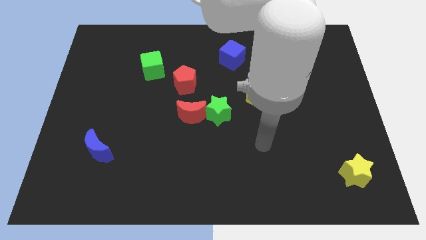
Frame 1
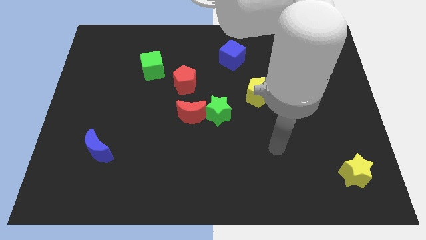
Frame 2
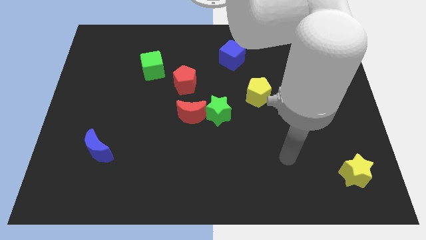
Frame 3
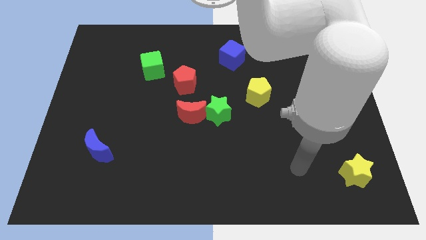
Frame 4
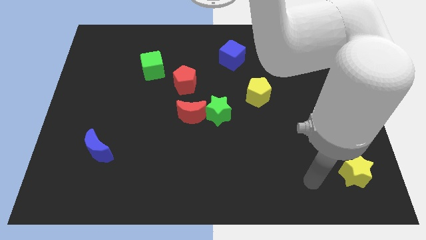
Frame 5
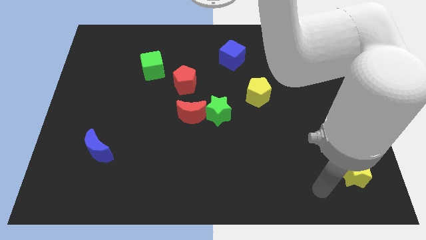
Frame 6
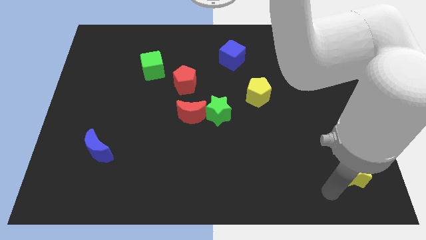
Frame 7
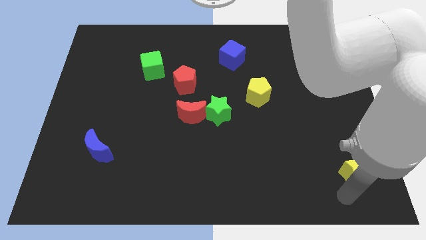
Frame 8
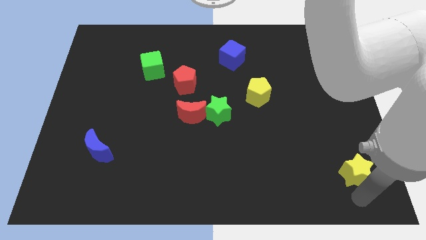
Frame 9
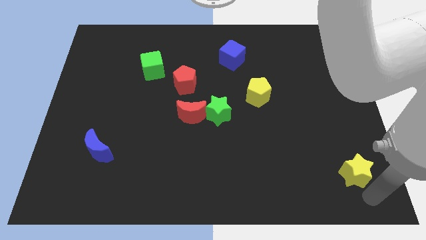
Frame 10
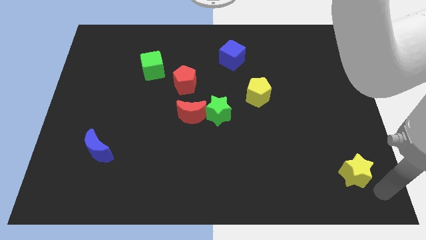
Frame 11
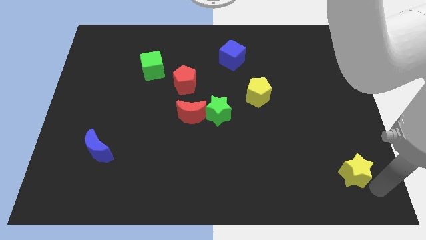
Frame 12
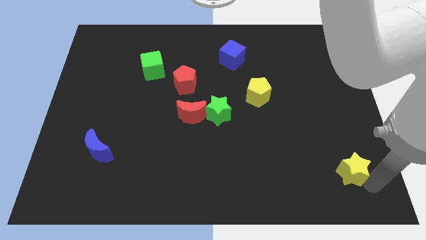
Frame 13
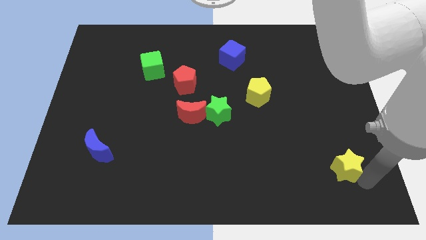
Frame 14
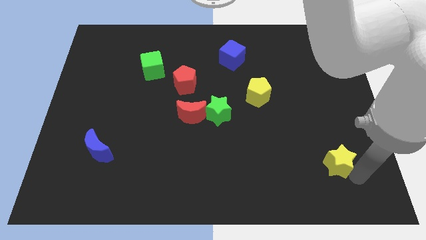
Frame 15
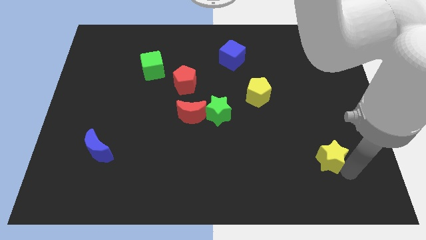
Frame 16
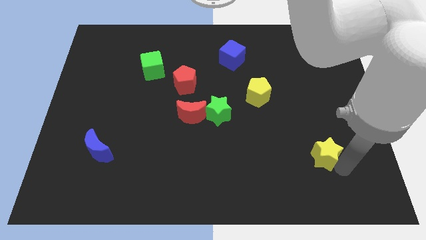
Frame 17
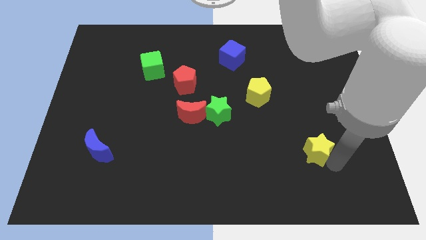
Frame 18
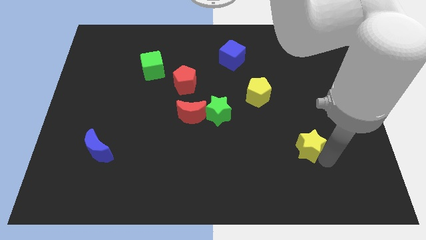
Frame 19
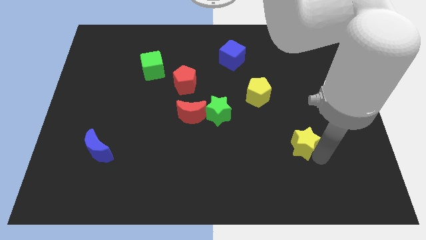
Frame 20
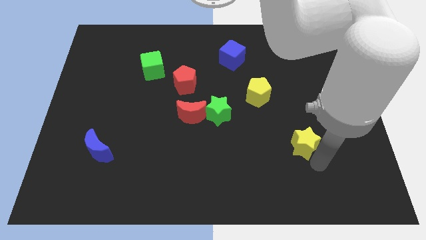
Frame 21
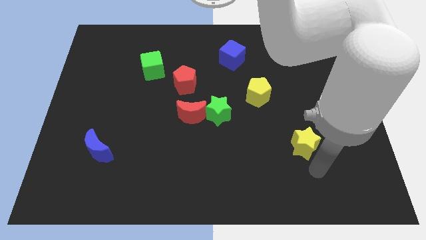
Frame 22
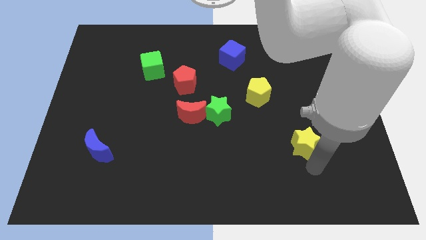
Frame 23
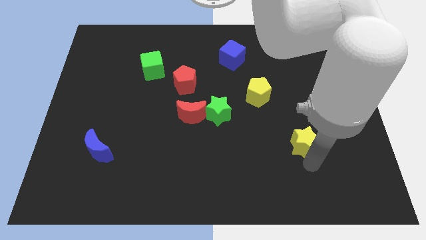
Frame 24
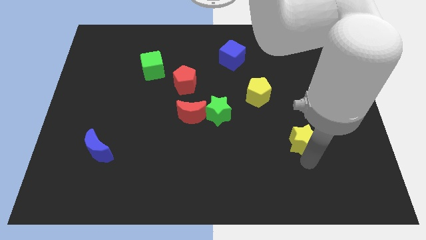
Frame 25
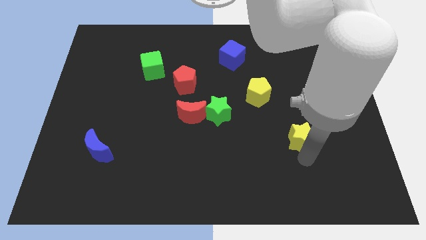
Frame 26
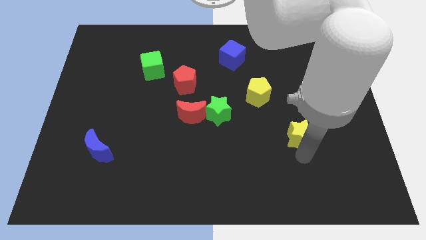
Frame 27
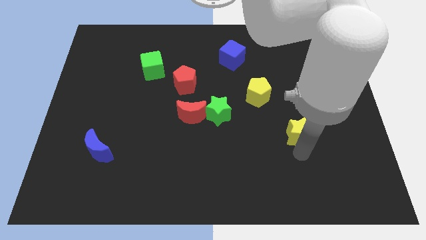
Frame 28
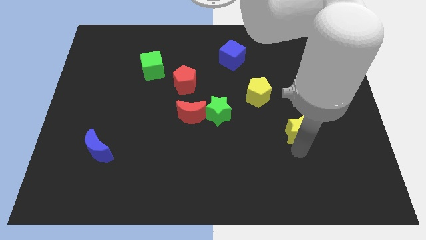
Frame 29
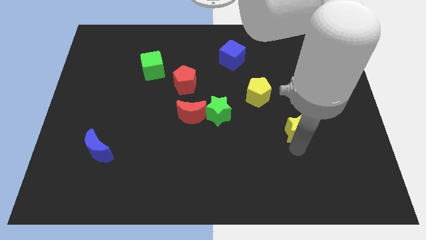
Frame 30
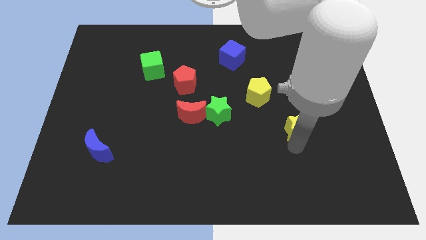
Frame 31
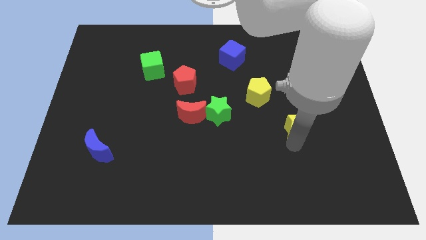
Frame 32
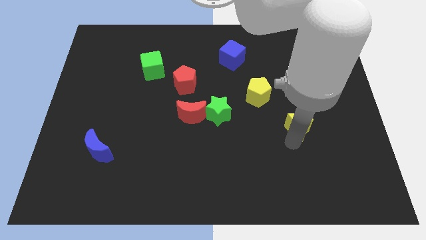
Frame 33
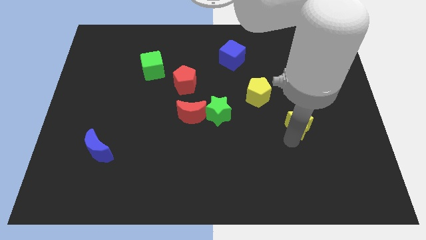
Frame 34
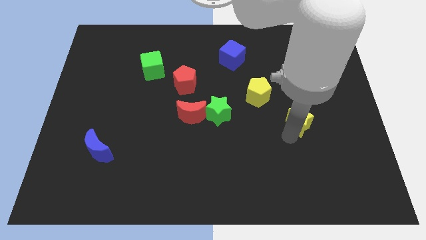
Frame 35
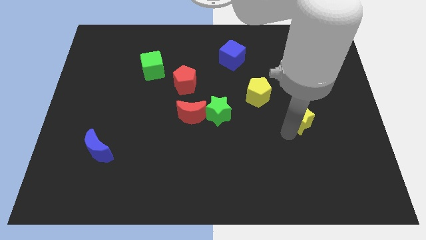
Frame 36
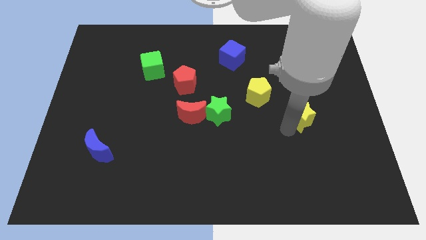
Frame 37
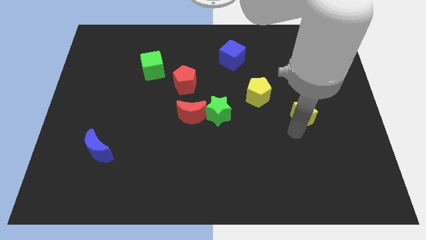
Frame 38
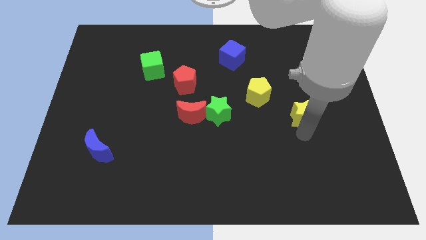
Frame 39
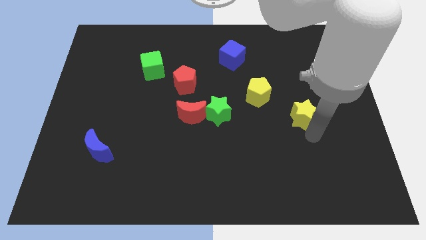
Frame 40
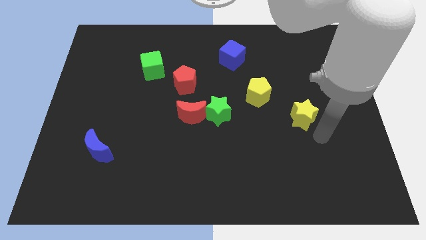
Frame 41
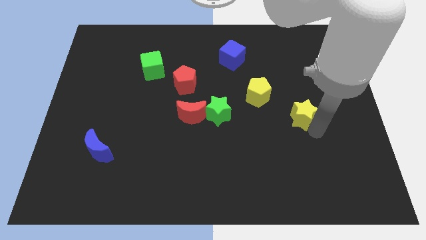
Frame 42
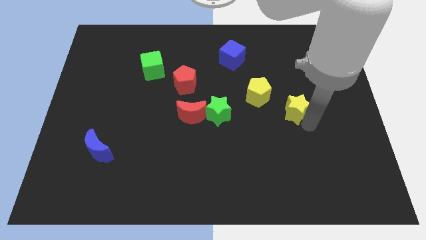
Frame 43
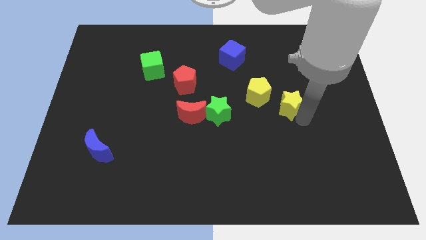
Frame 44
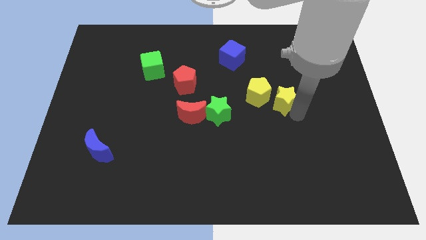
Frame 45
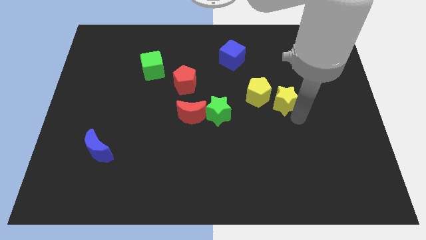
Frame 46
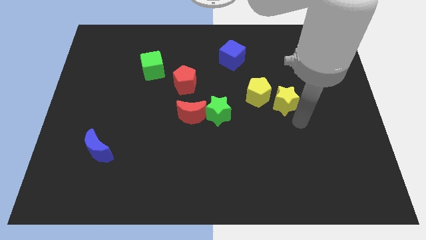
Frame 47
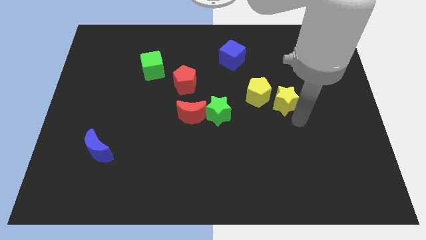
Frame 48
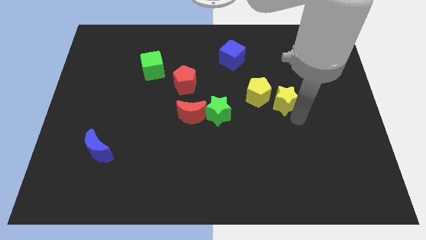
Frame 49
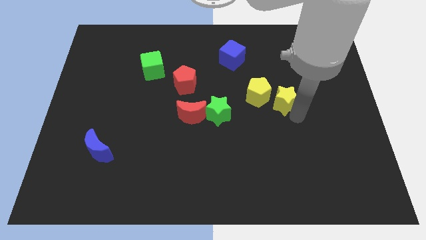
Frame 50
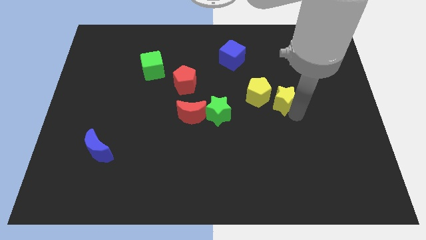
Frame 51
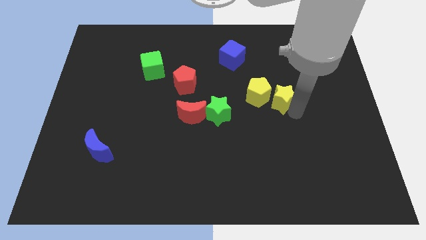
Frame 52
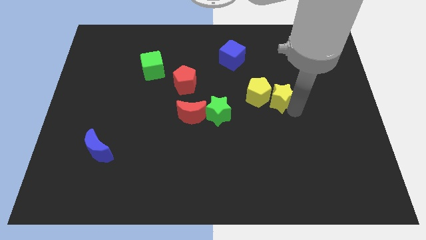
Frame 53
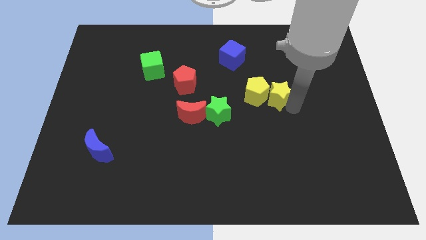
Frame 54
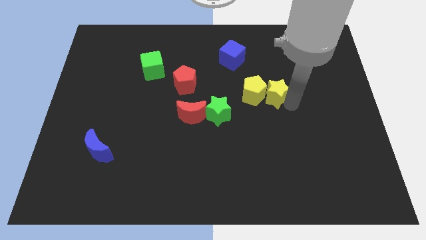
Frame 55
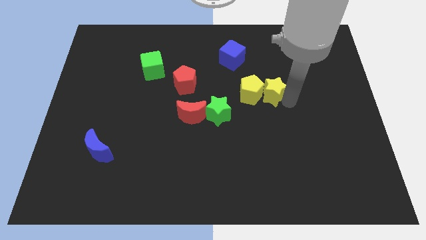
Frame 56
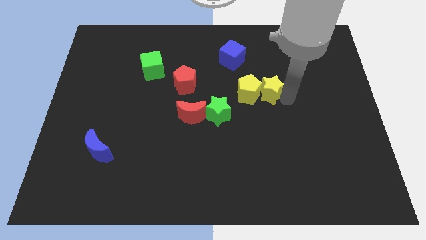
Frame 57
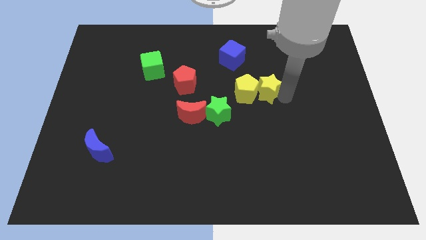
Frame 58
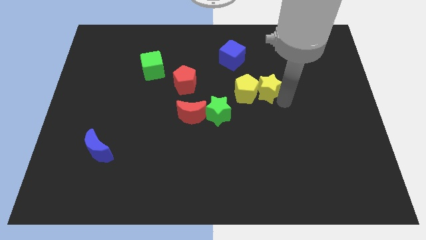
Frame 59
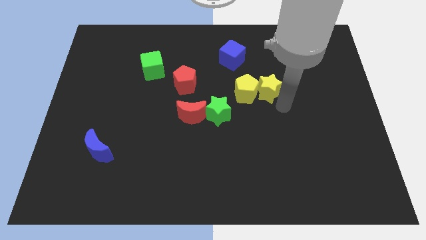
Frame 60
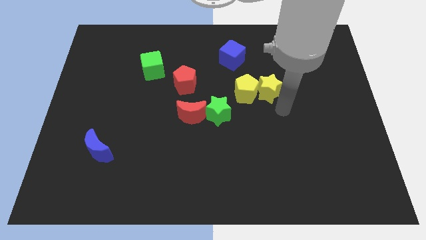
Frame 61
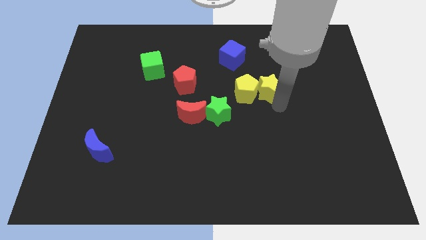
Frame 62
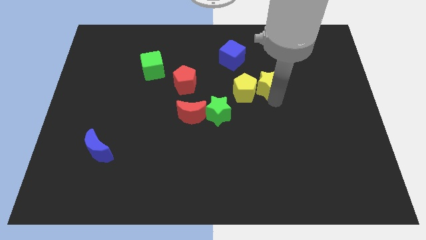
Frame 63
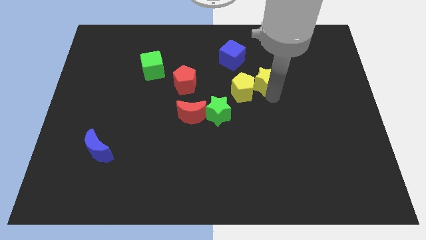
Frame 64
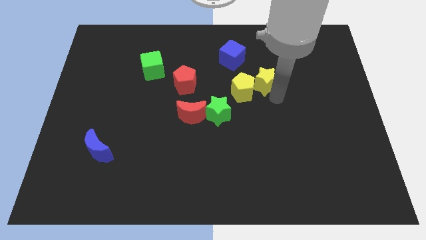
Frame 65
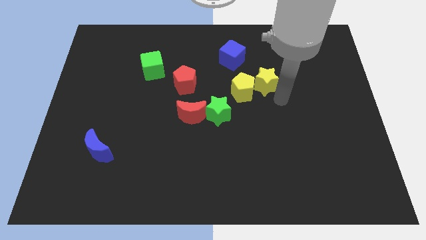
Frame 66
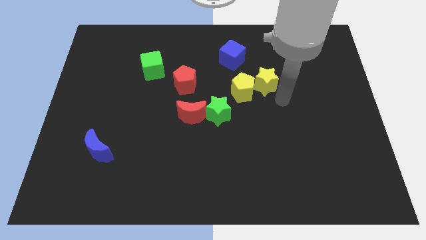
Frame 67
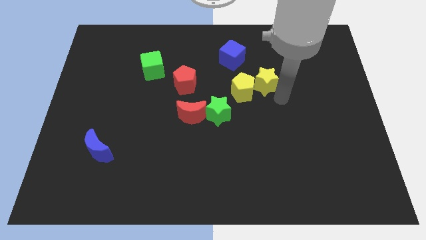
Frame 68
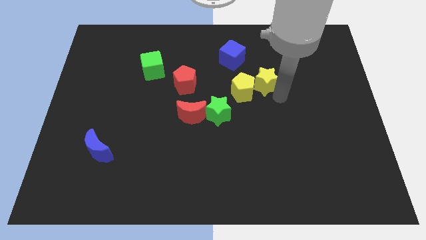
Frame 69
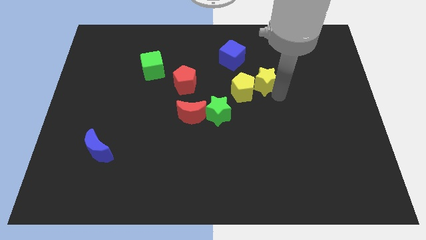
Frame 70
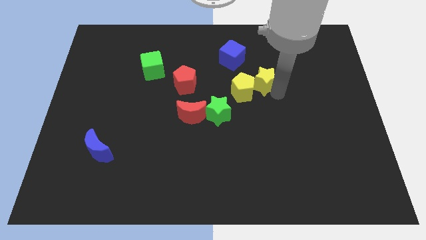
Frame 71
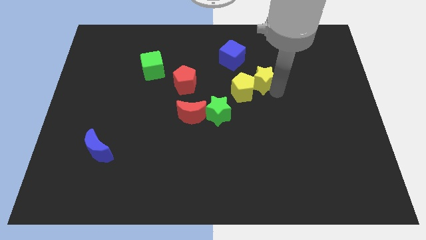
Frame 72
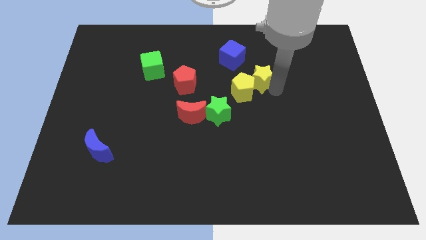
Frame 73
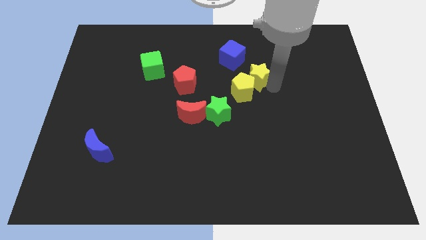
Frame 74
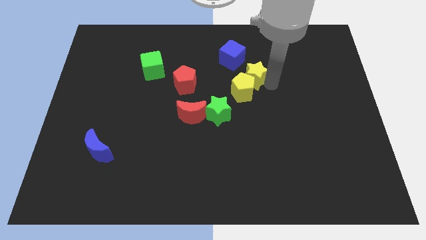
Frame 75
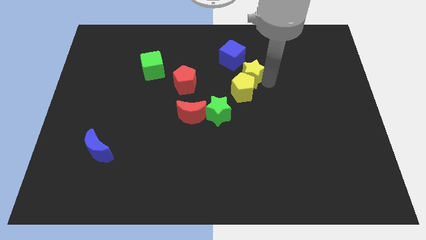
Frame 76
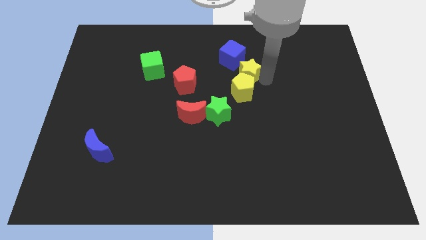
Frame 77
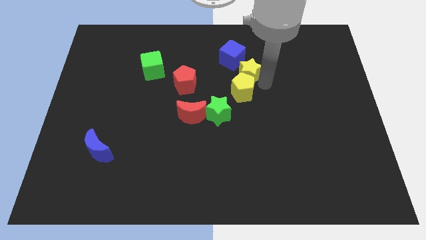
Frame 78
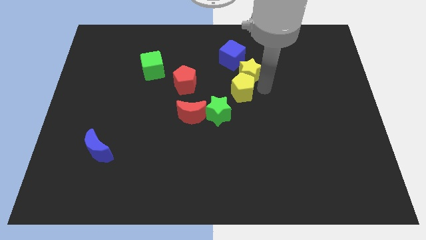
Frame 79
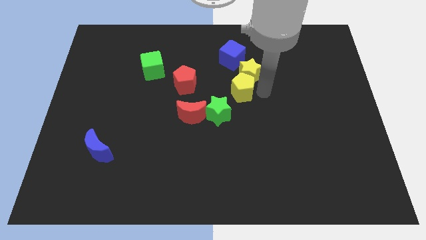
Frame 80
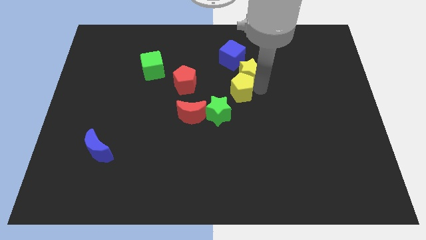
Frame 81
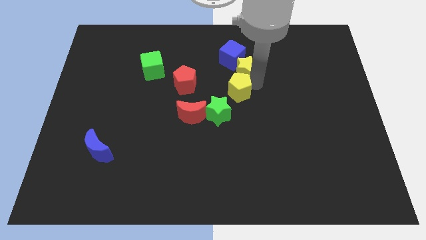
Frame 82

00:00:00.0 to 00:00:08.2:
slide the yellow star to the blue cube
